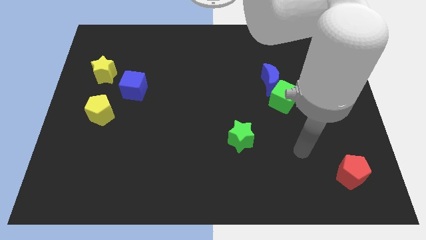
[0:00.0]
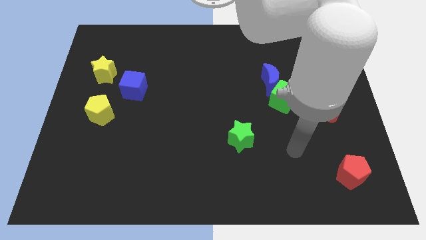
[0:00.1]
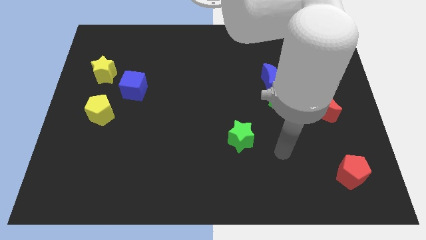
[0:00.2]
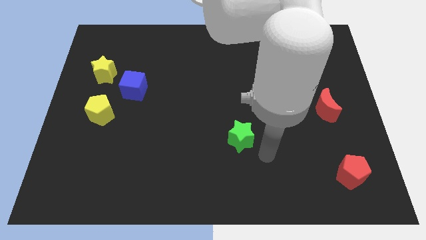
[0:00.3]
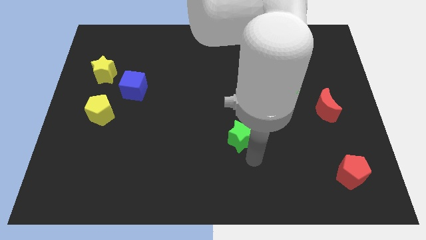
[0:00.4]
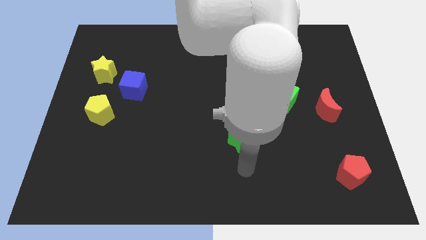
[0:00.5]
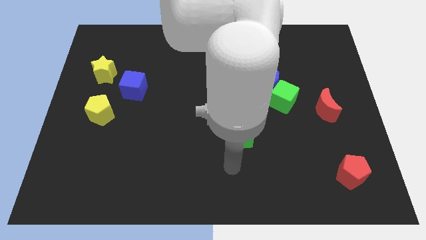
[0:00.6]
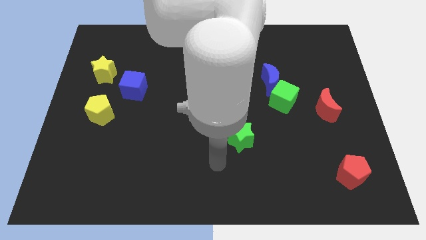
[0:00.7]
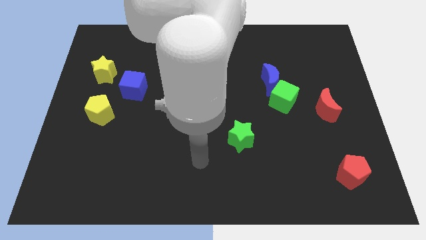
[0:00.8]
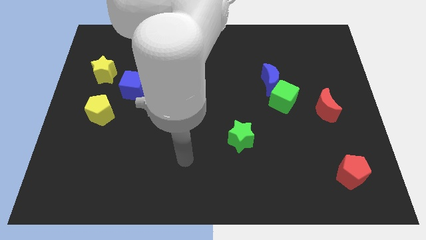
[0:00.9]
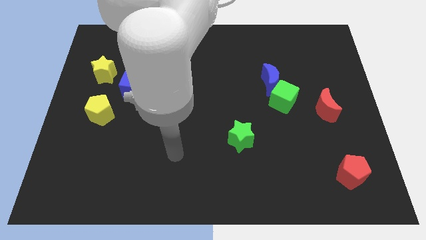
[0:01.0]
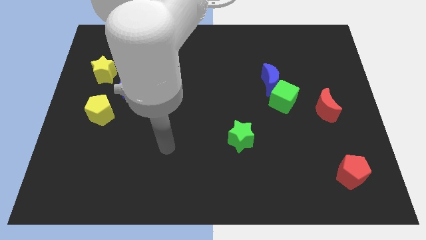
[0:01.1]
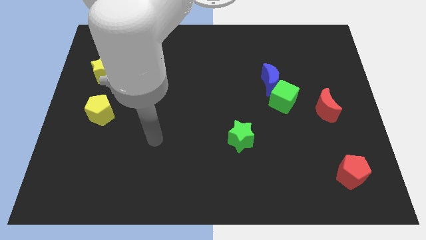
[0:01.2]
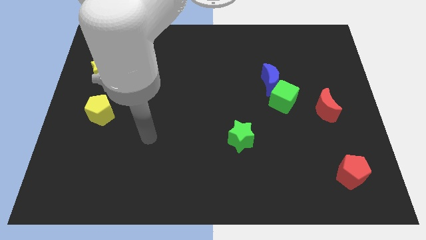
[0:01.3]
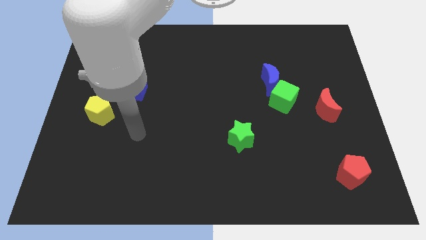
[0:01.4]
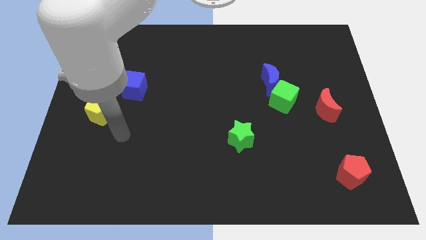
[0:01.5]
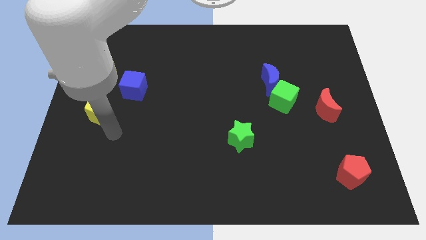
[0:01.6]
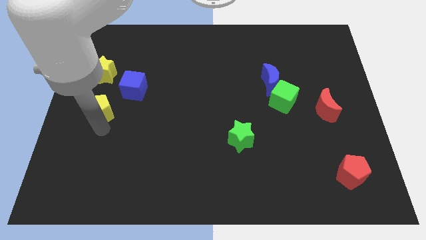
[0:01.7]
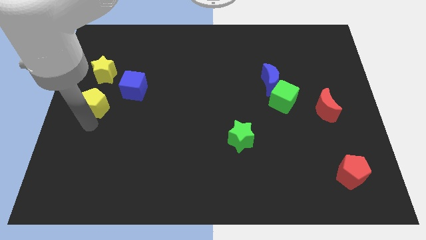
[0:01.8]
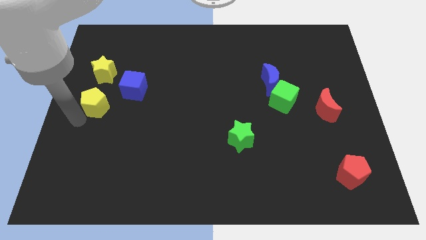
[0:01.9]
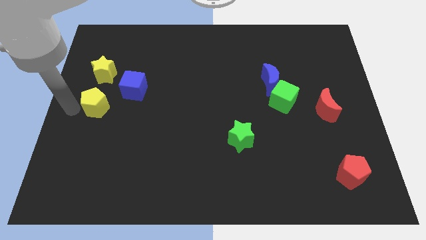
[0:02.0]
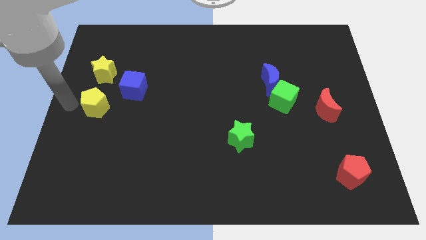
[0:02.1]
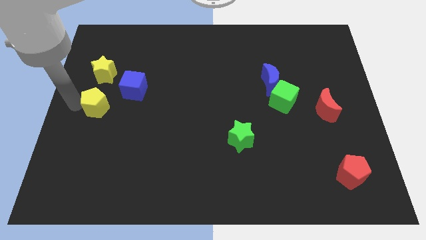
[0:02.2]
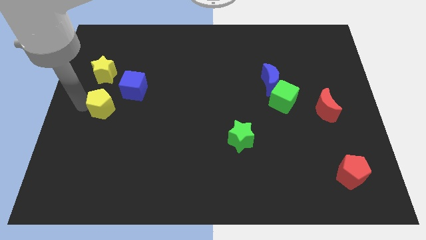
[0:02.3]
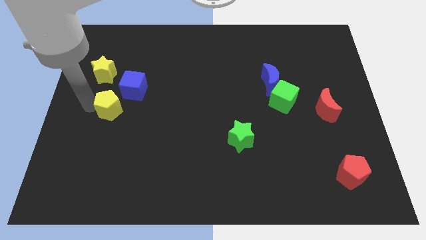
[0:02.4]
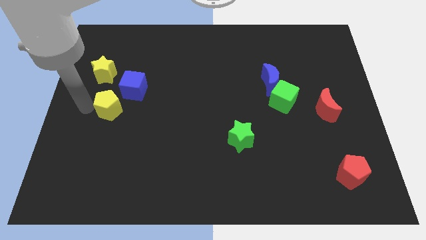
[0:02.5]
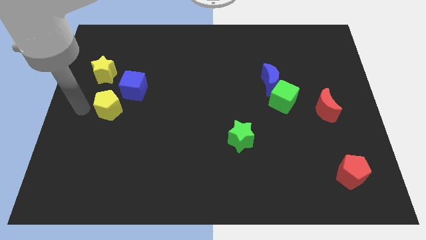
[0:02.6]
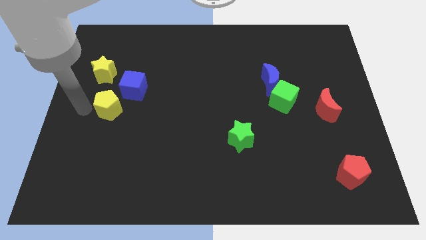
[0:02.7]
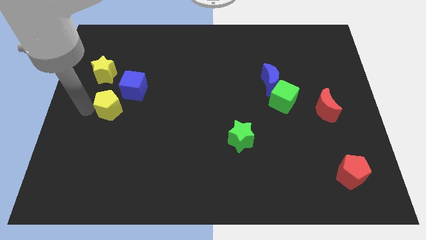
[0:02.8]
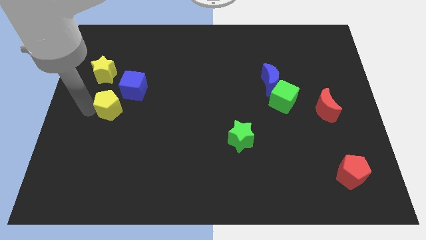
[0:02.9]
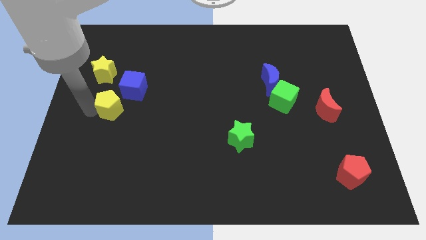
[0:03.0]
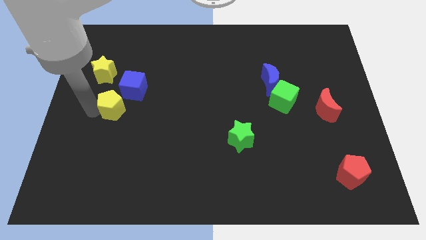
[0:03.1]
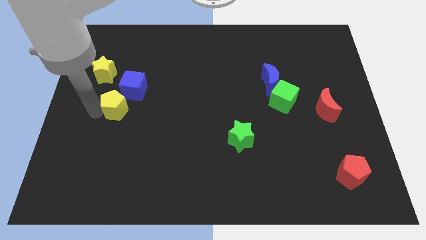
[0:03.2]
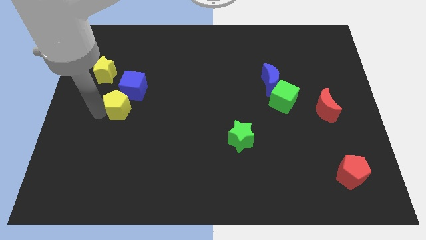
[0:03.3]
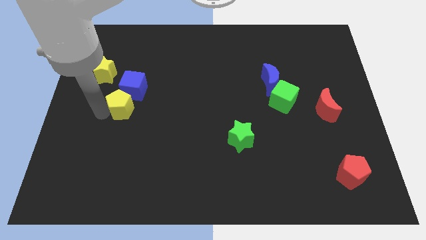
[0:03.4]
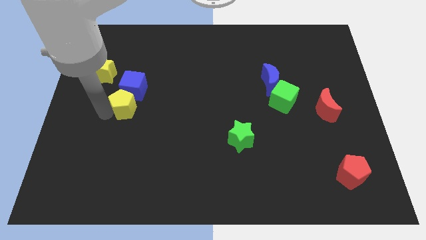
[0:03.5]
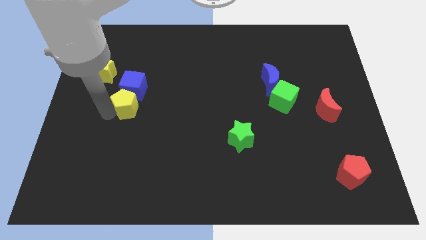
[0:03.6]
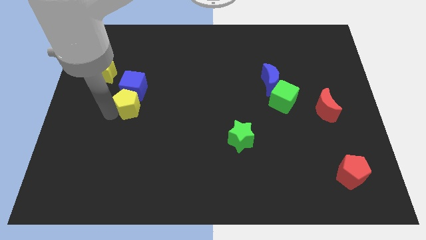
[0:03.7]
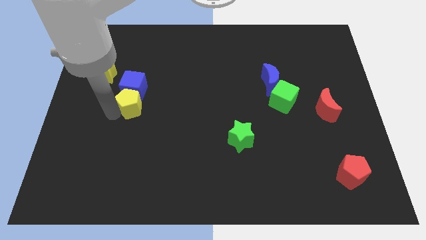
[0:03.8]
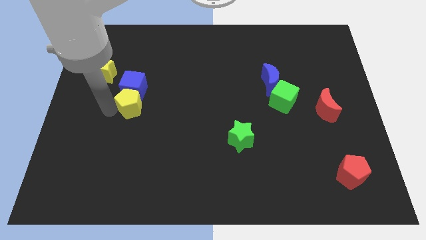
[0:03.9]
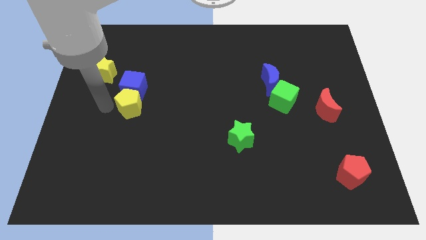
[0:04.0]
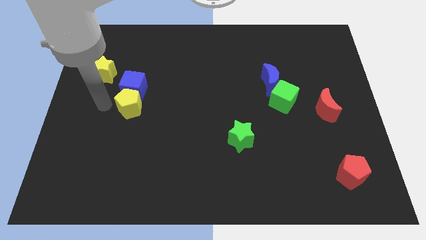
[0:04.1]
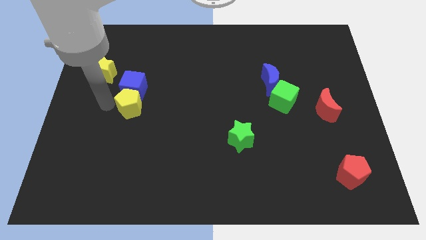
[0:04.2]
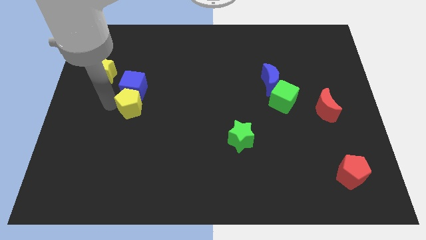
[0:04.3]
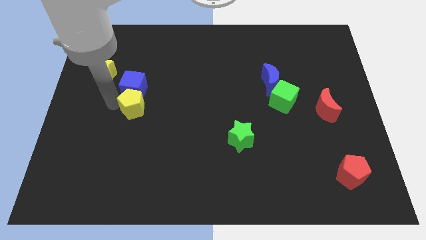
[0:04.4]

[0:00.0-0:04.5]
slightly push the yellow pentagon right

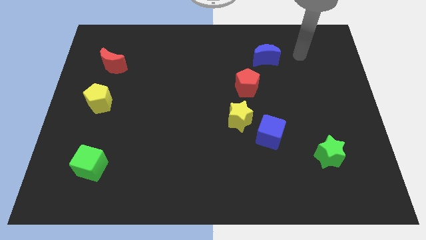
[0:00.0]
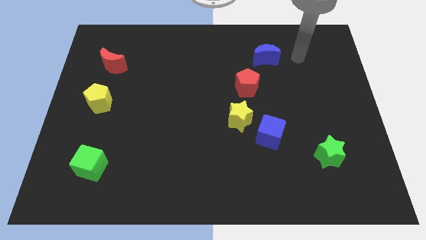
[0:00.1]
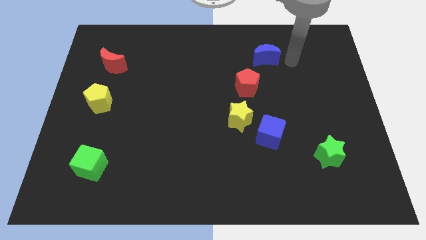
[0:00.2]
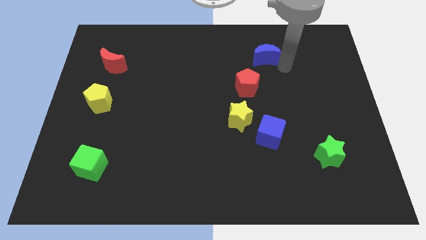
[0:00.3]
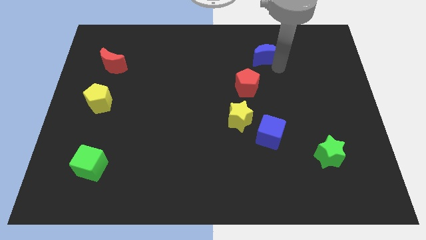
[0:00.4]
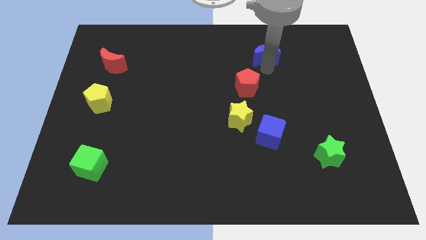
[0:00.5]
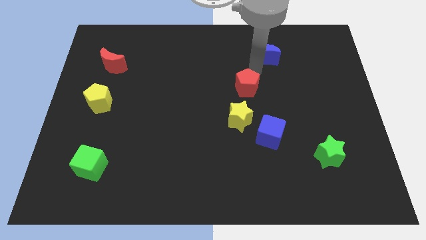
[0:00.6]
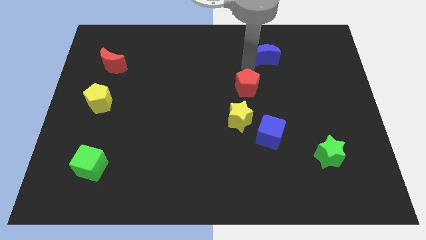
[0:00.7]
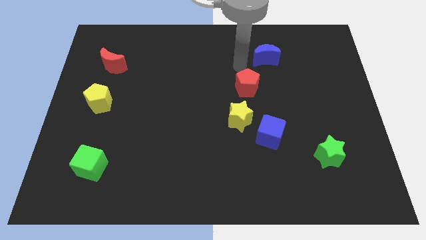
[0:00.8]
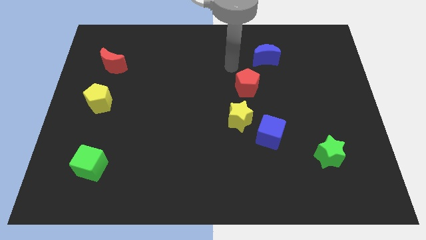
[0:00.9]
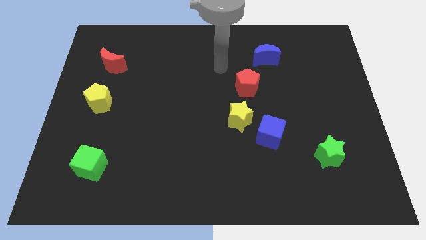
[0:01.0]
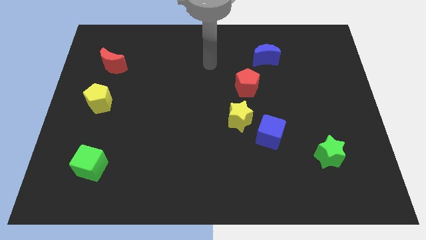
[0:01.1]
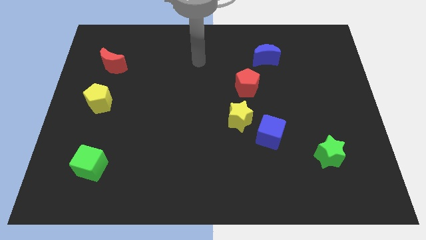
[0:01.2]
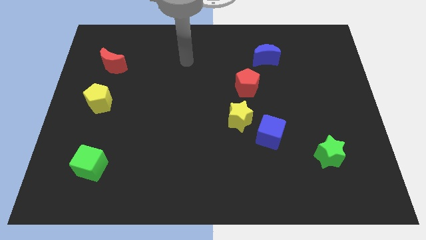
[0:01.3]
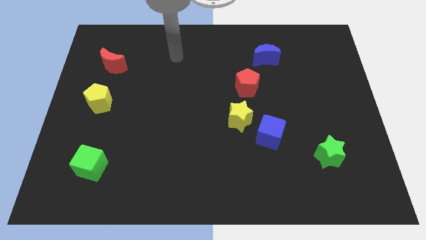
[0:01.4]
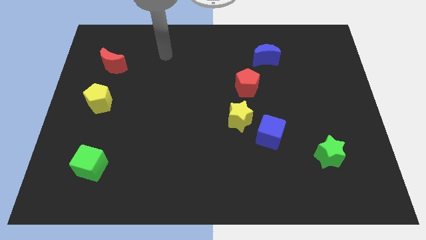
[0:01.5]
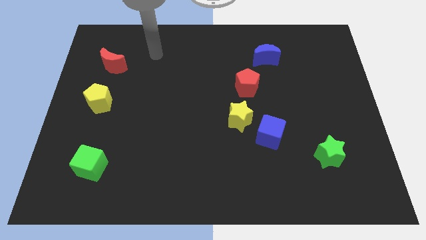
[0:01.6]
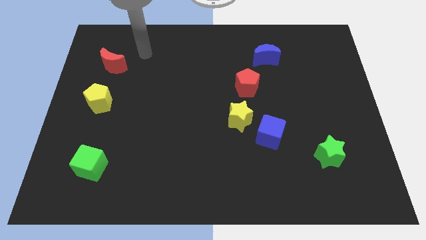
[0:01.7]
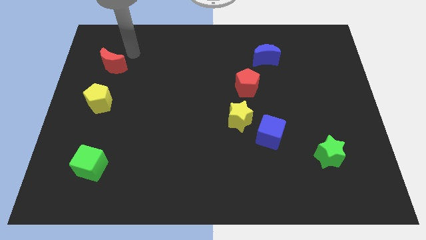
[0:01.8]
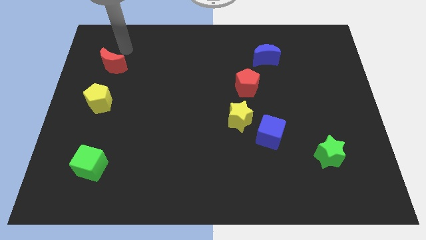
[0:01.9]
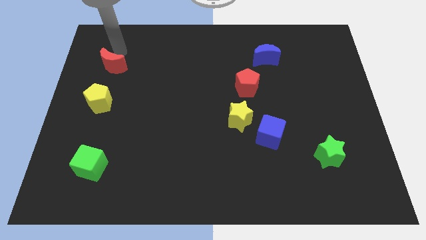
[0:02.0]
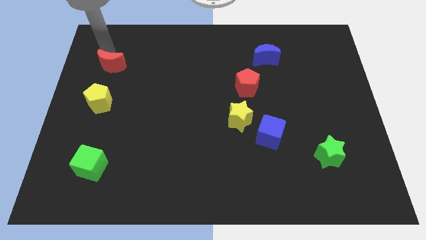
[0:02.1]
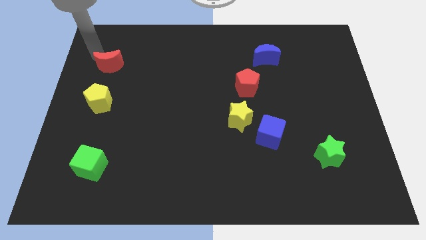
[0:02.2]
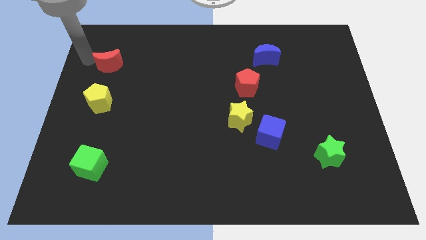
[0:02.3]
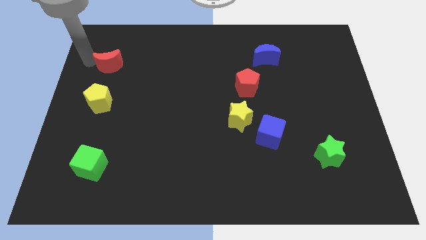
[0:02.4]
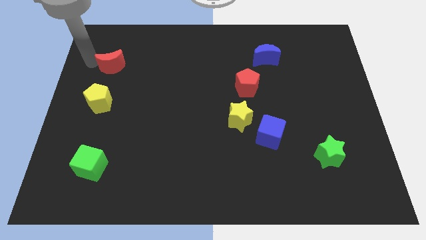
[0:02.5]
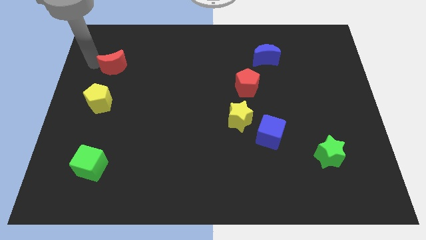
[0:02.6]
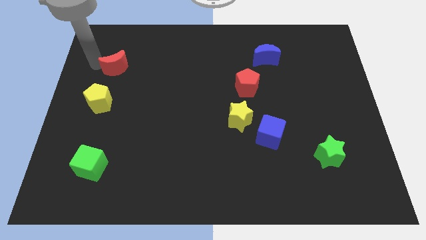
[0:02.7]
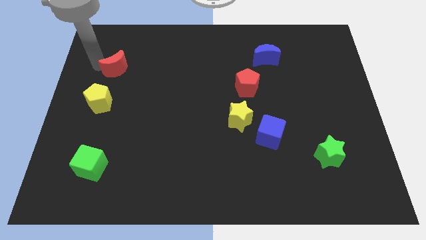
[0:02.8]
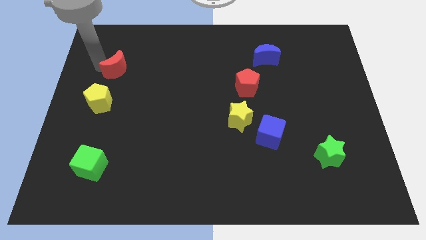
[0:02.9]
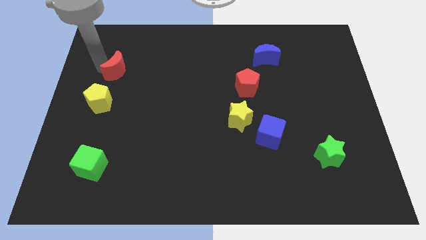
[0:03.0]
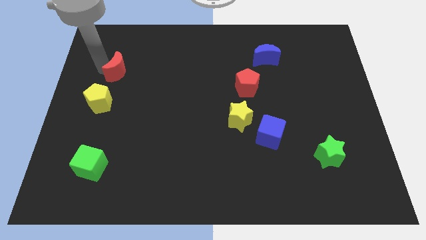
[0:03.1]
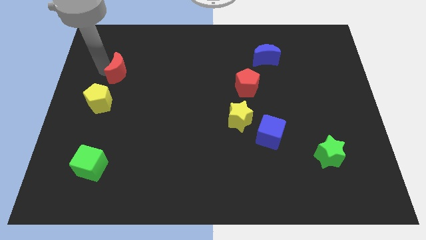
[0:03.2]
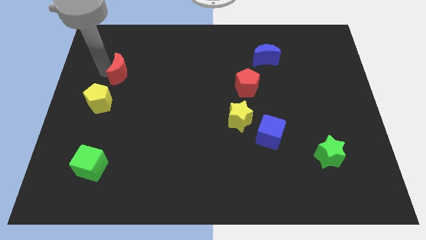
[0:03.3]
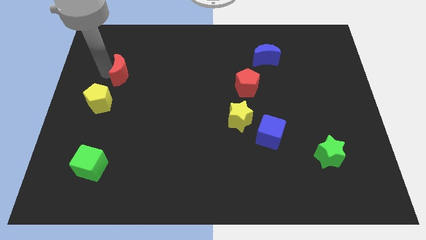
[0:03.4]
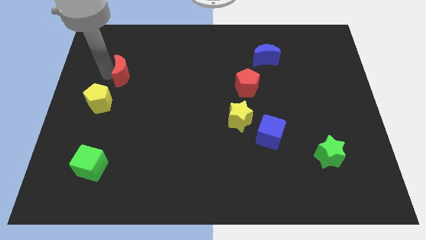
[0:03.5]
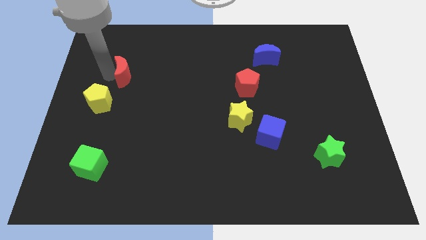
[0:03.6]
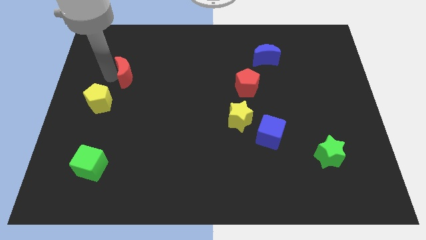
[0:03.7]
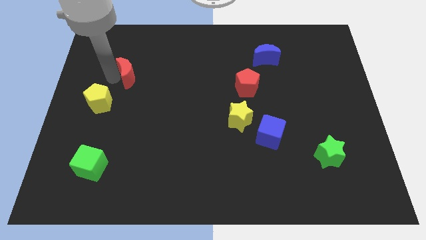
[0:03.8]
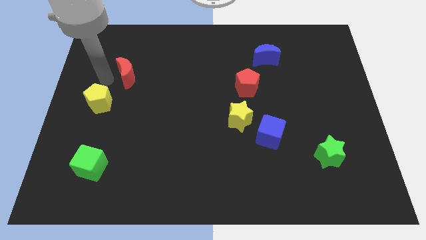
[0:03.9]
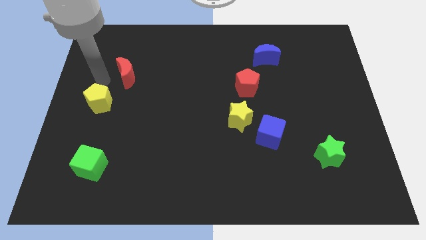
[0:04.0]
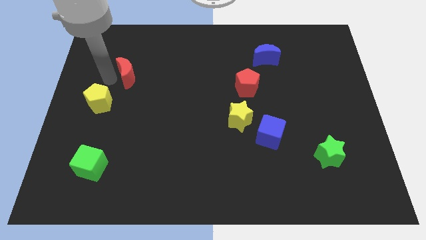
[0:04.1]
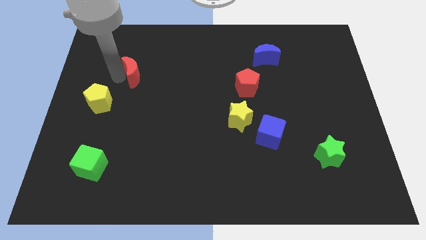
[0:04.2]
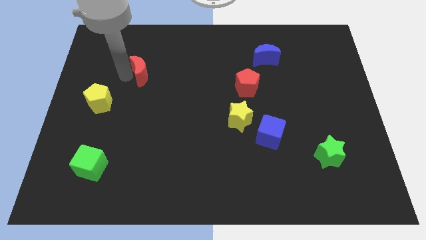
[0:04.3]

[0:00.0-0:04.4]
push the red moon a little right
